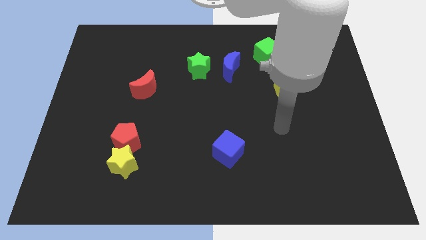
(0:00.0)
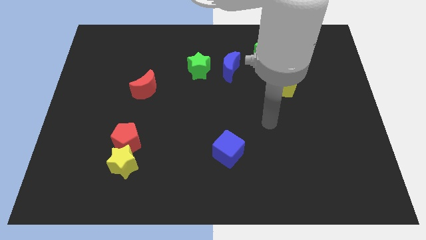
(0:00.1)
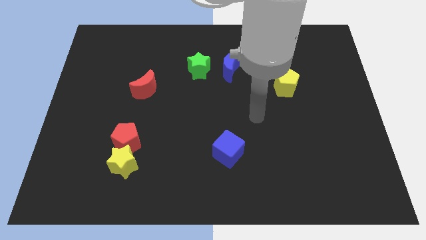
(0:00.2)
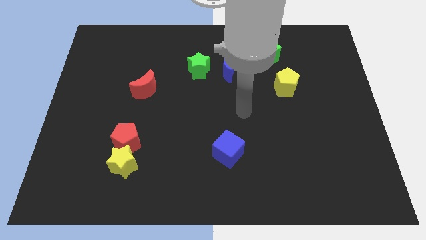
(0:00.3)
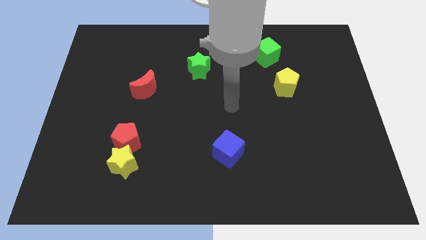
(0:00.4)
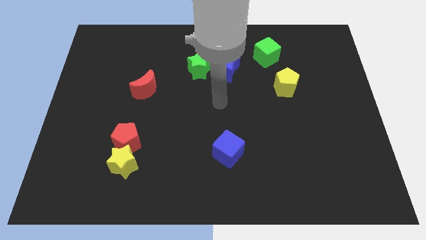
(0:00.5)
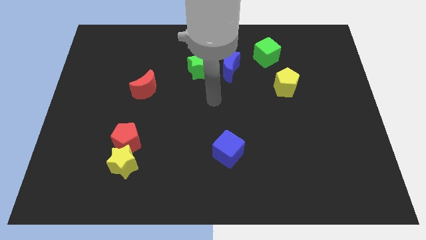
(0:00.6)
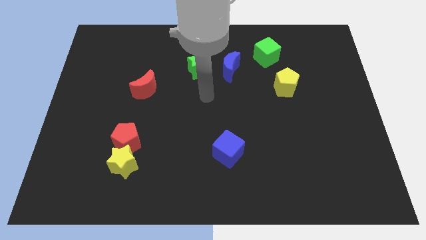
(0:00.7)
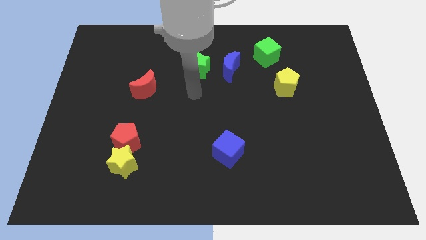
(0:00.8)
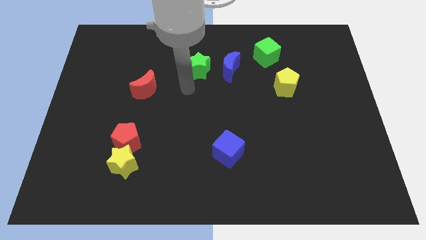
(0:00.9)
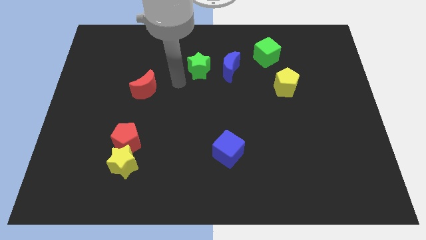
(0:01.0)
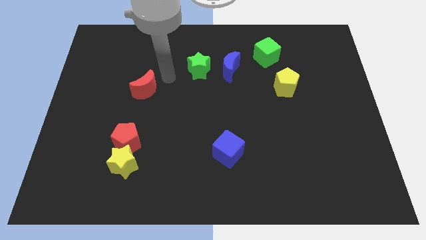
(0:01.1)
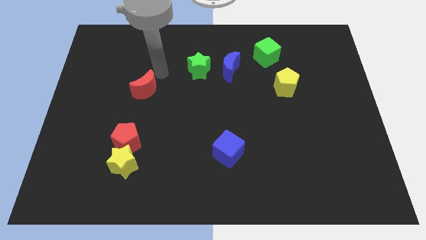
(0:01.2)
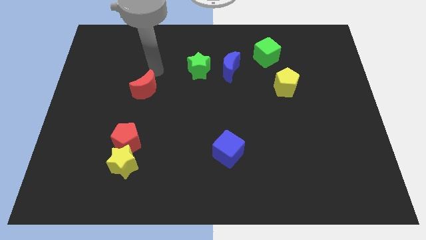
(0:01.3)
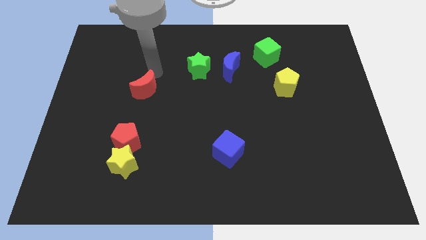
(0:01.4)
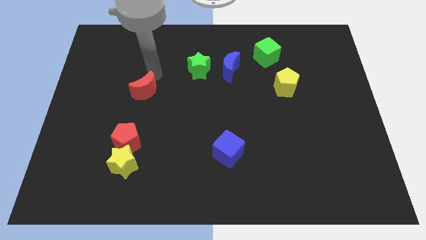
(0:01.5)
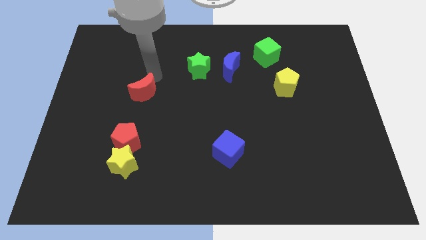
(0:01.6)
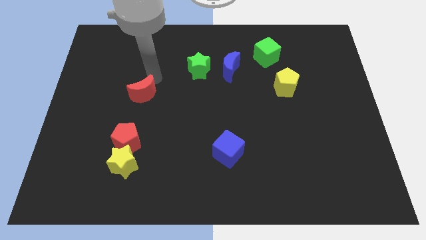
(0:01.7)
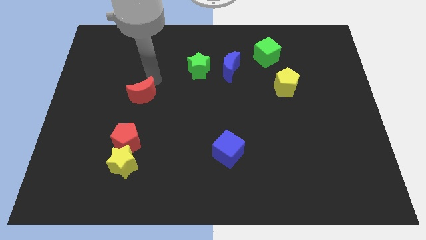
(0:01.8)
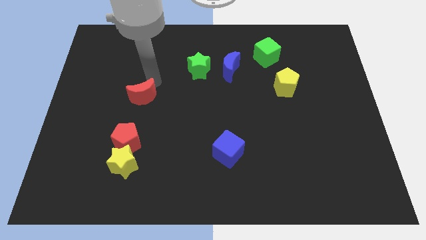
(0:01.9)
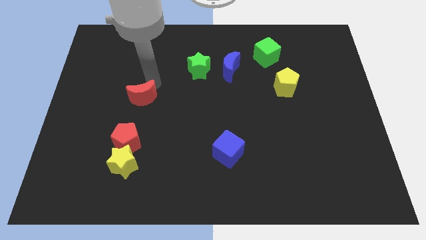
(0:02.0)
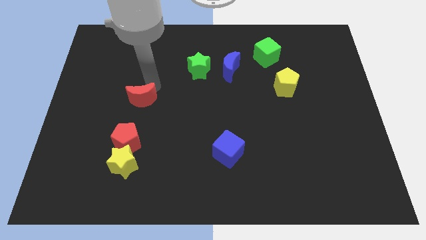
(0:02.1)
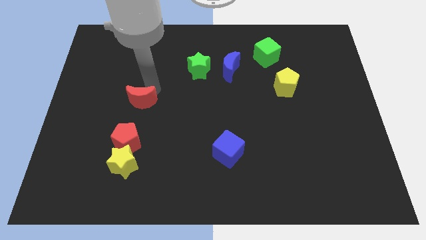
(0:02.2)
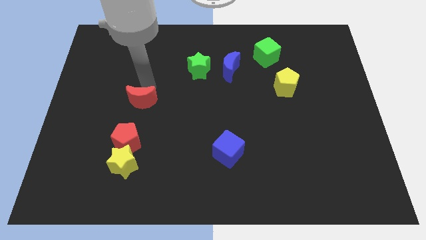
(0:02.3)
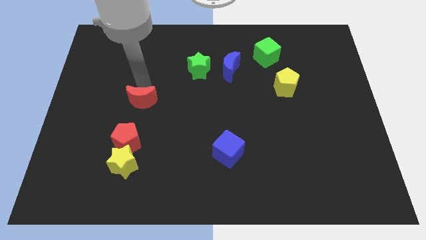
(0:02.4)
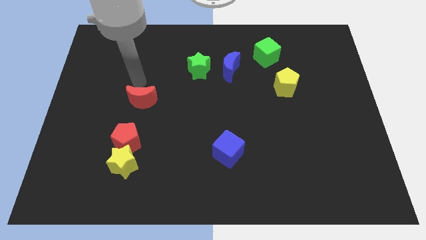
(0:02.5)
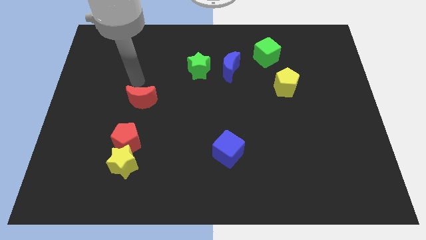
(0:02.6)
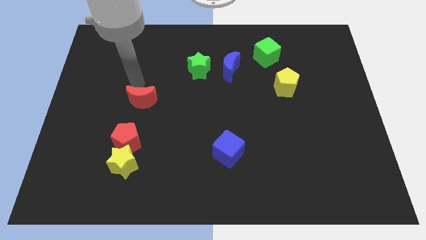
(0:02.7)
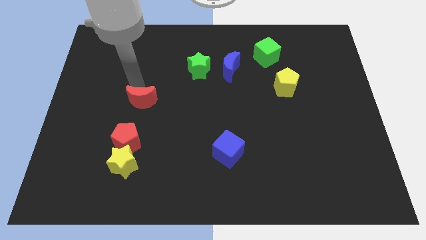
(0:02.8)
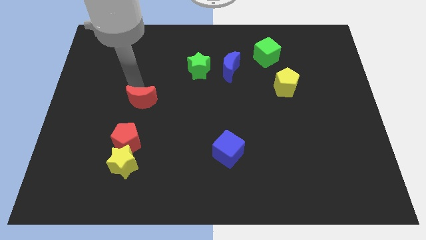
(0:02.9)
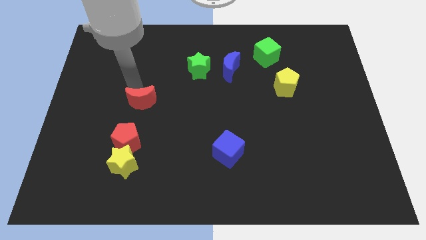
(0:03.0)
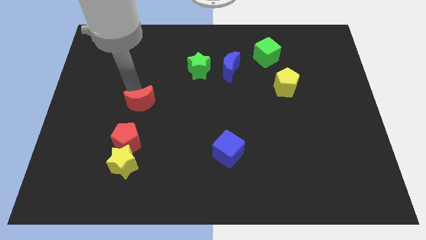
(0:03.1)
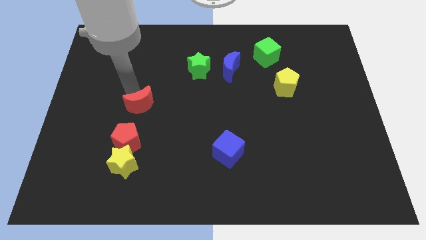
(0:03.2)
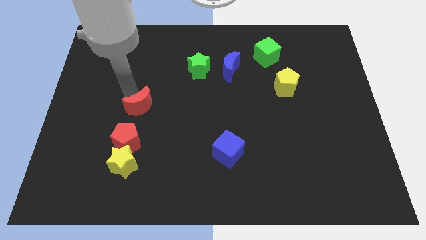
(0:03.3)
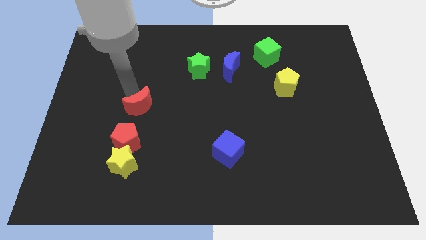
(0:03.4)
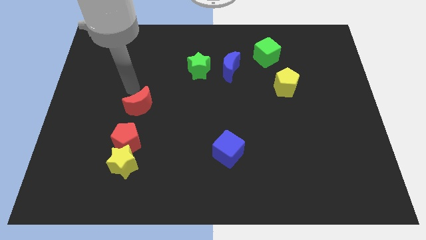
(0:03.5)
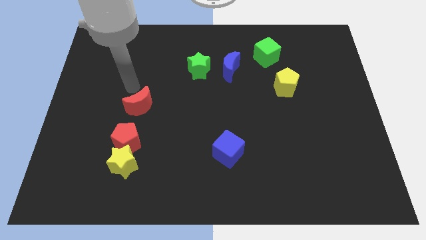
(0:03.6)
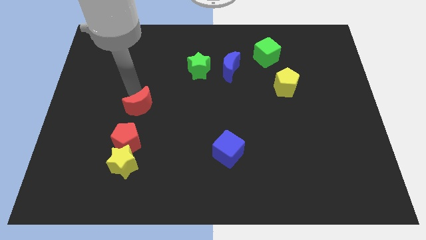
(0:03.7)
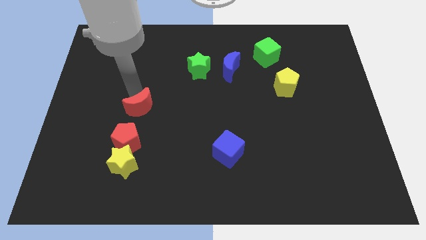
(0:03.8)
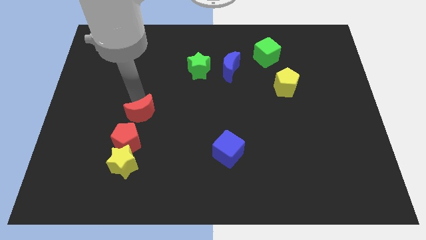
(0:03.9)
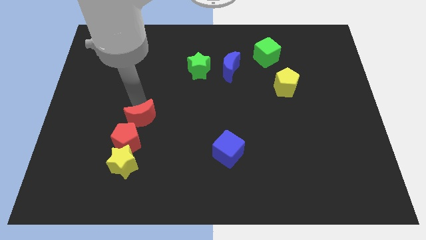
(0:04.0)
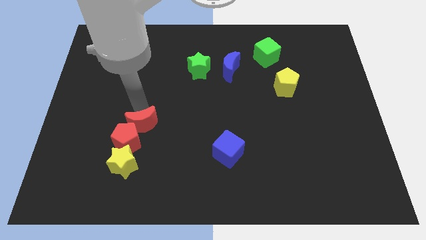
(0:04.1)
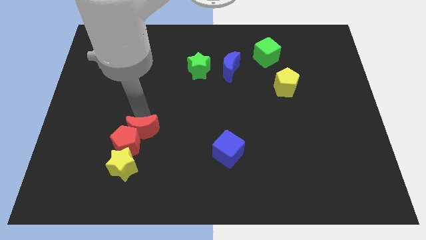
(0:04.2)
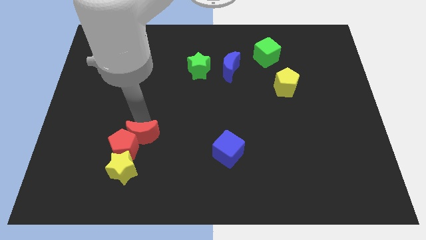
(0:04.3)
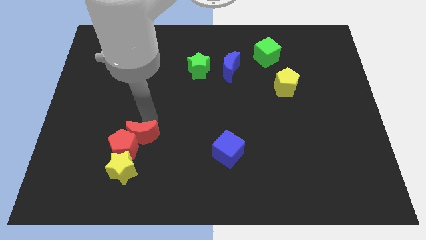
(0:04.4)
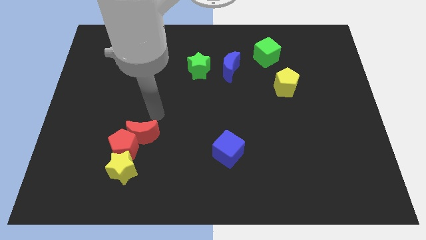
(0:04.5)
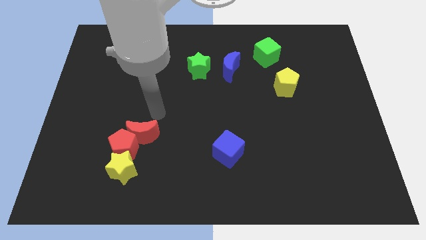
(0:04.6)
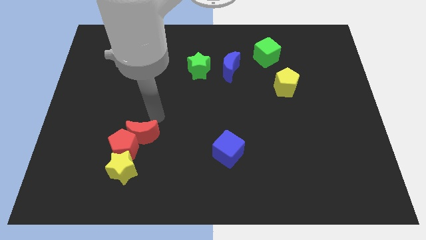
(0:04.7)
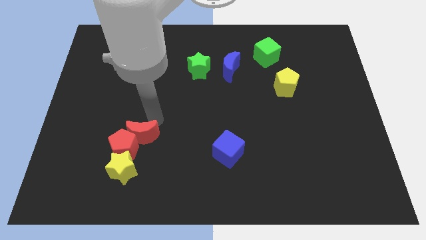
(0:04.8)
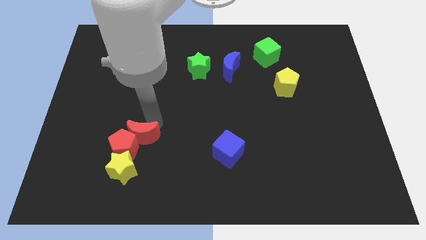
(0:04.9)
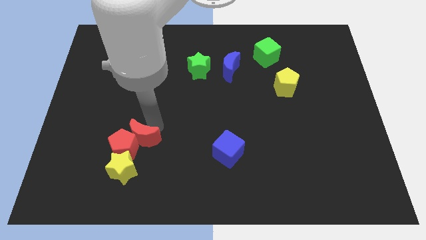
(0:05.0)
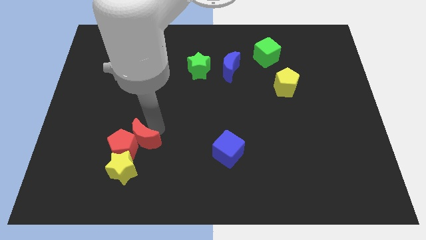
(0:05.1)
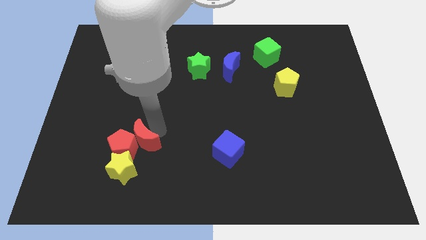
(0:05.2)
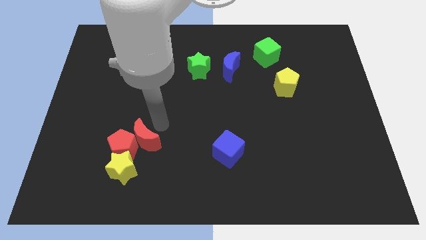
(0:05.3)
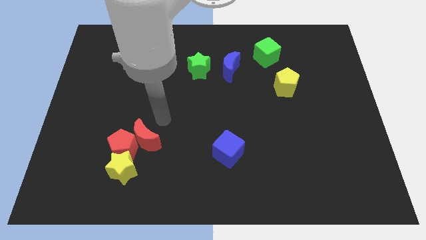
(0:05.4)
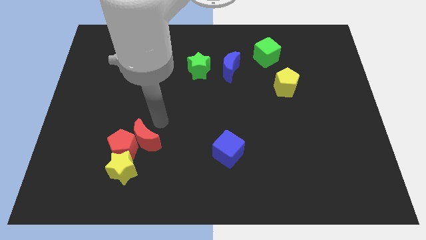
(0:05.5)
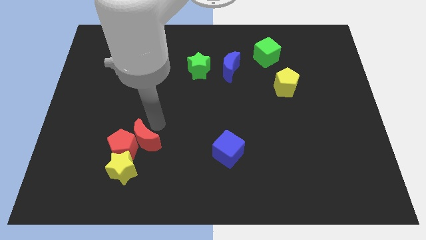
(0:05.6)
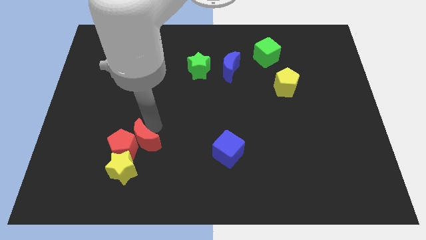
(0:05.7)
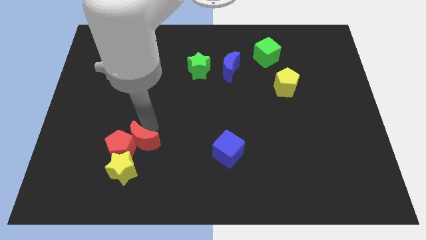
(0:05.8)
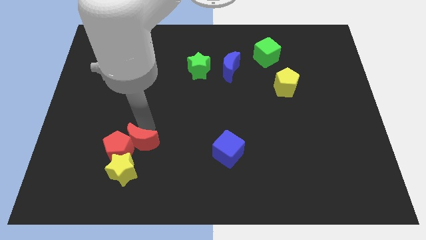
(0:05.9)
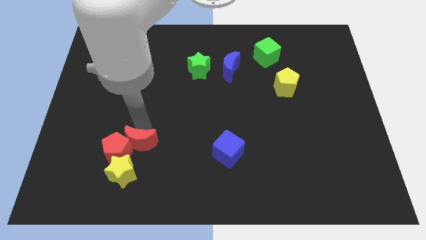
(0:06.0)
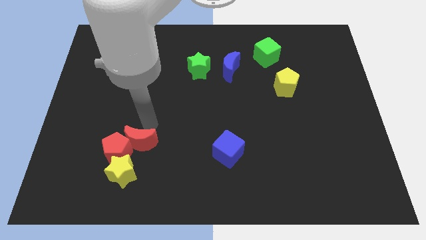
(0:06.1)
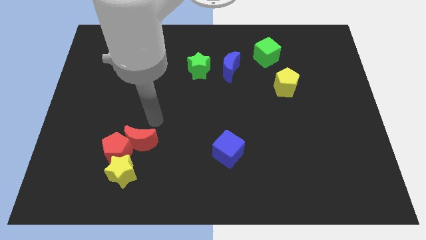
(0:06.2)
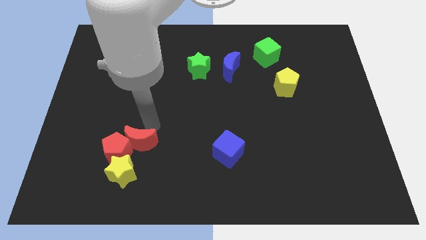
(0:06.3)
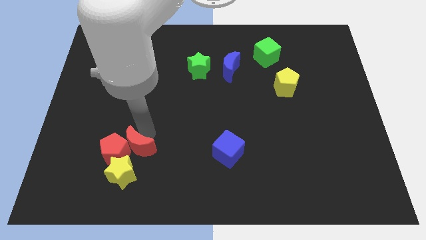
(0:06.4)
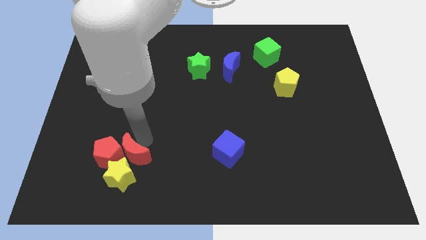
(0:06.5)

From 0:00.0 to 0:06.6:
push the red moon to the yellow star

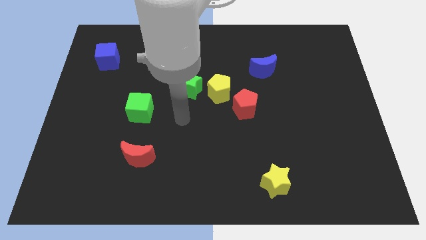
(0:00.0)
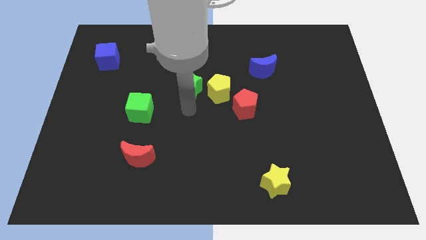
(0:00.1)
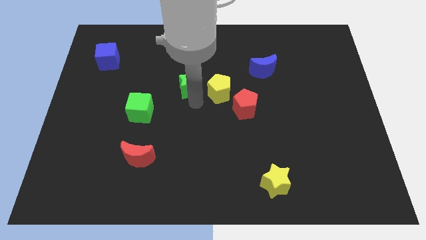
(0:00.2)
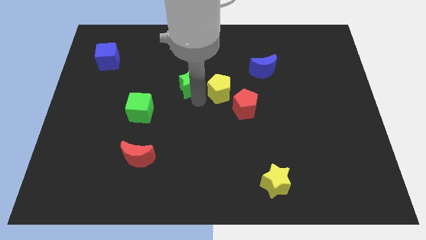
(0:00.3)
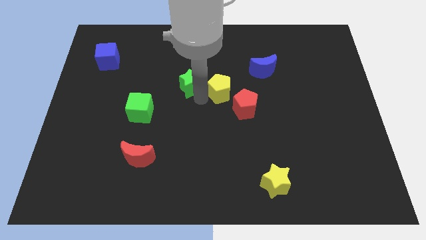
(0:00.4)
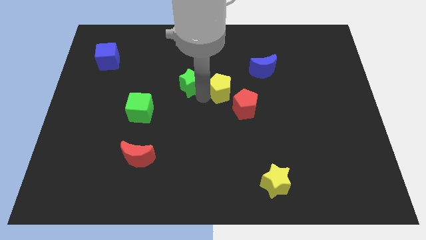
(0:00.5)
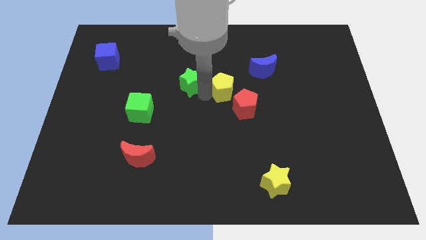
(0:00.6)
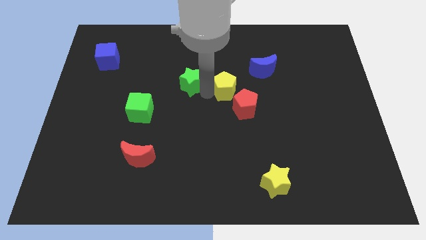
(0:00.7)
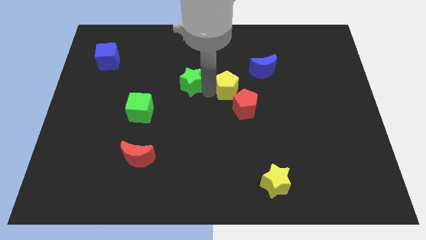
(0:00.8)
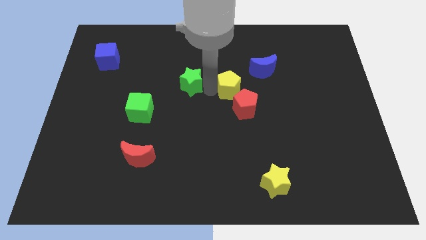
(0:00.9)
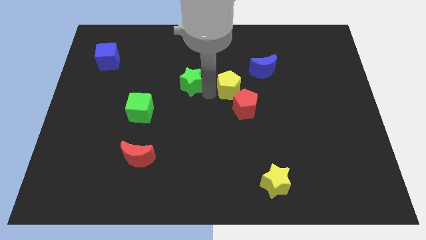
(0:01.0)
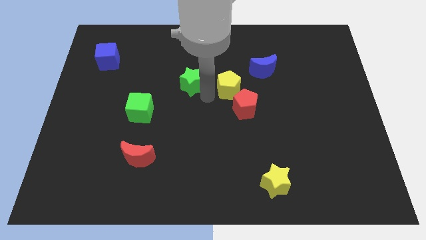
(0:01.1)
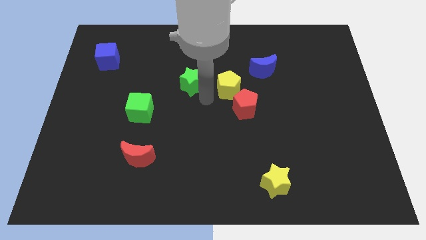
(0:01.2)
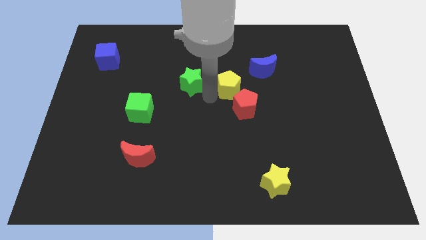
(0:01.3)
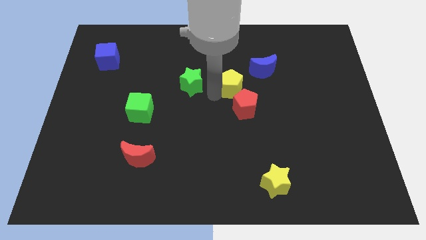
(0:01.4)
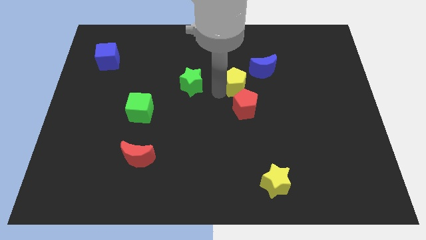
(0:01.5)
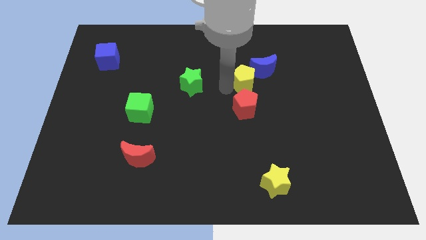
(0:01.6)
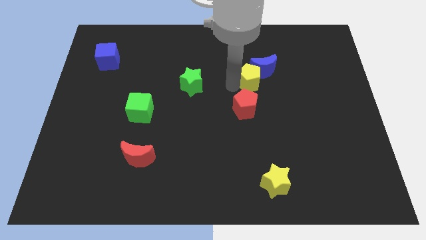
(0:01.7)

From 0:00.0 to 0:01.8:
slide the yellow pentagon towards the blue moon
